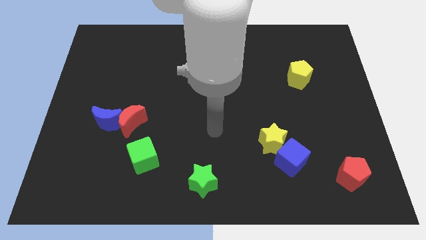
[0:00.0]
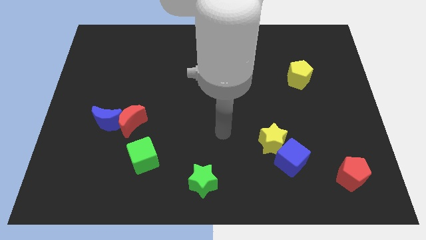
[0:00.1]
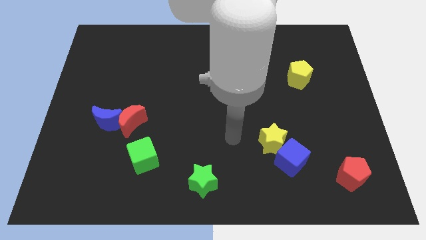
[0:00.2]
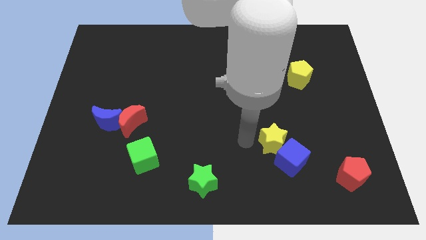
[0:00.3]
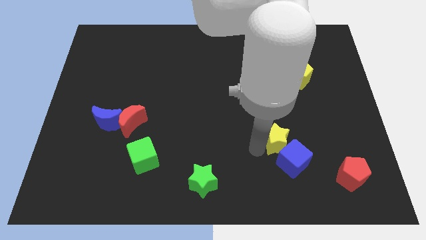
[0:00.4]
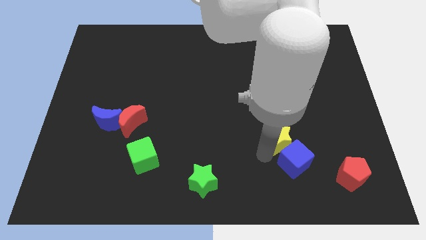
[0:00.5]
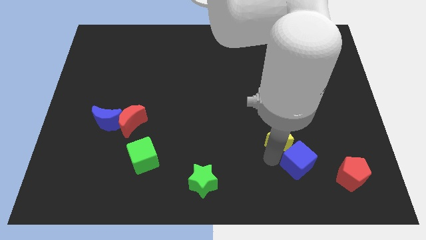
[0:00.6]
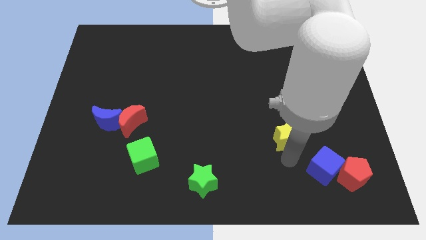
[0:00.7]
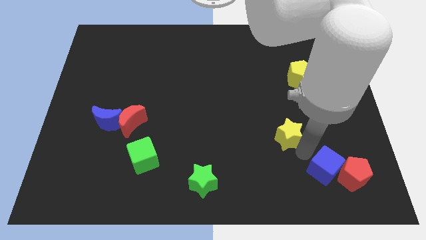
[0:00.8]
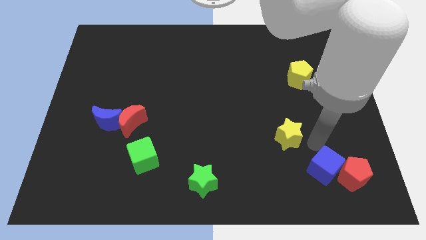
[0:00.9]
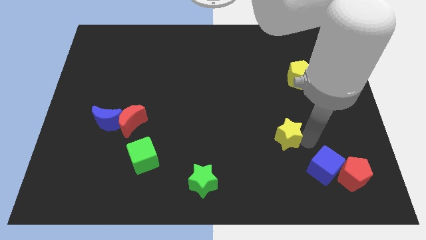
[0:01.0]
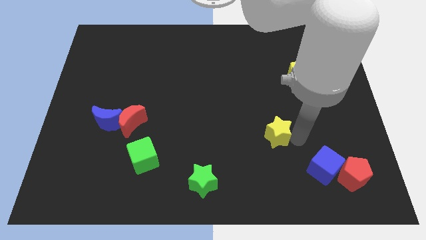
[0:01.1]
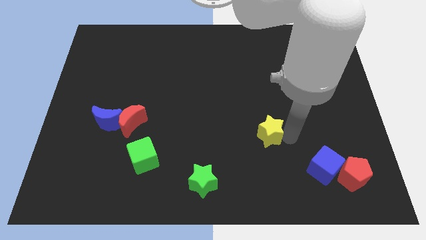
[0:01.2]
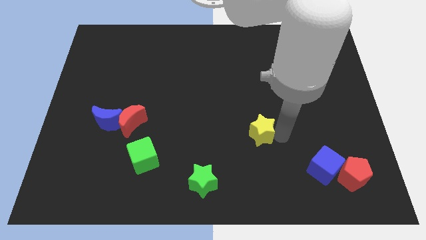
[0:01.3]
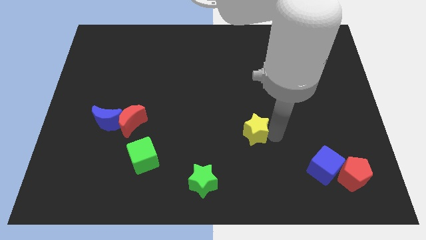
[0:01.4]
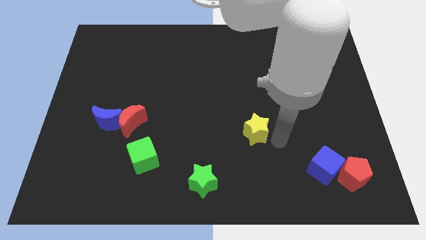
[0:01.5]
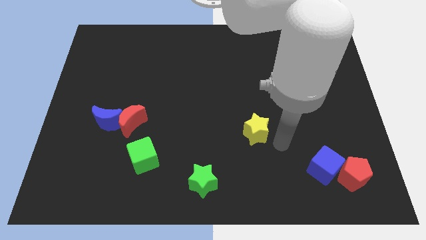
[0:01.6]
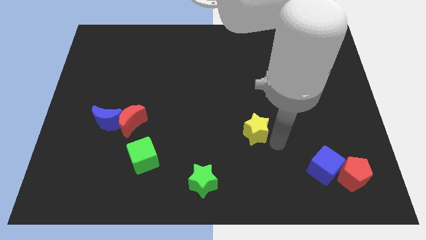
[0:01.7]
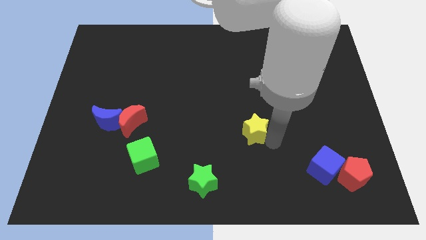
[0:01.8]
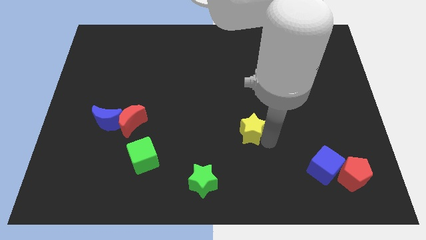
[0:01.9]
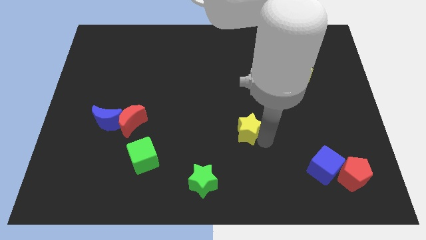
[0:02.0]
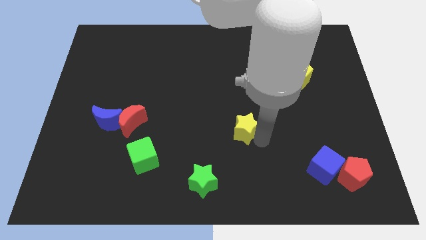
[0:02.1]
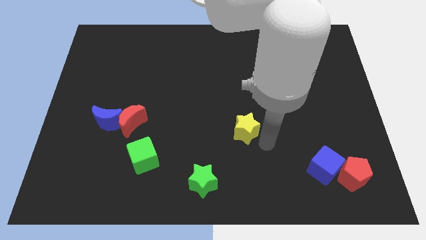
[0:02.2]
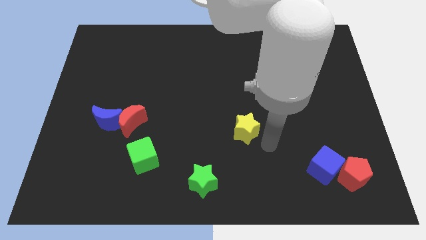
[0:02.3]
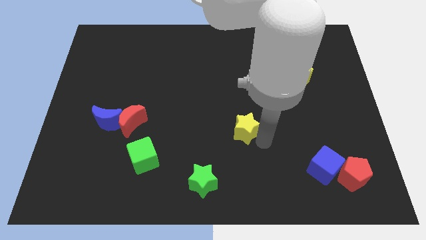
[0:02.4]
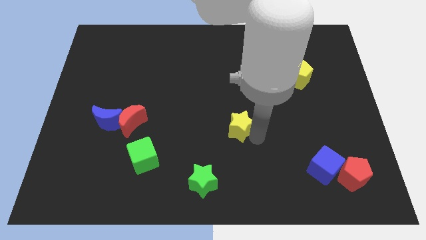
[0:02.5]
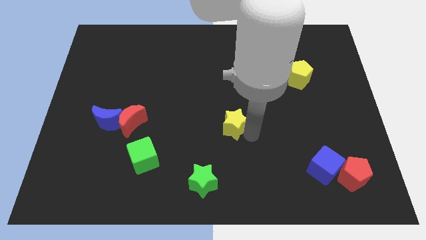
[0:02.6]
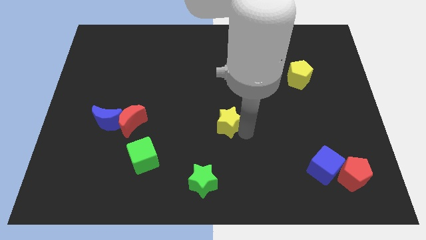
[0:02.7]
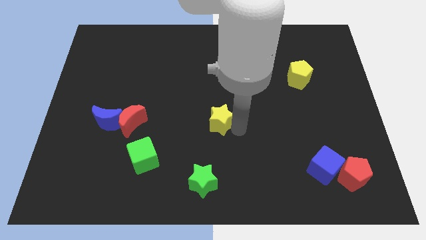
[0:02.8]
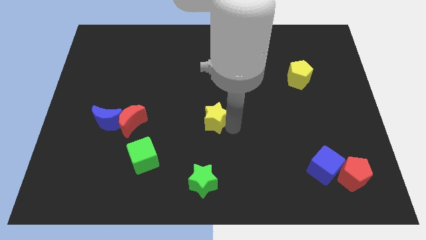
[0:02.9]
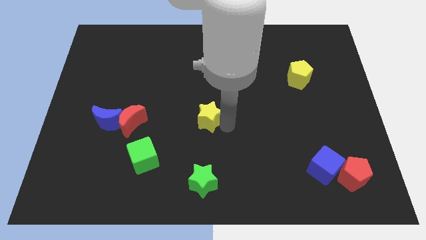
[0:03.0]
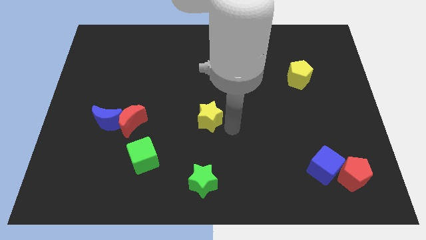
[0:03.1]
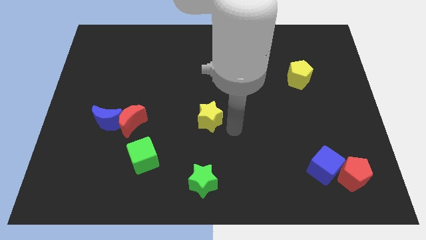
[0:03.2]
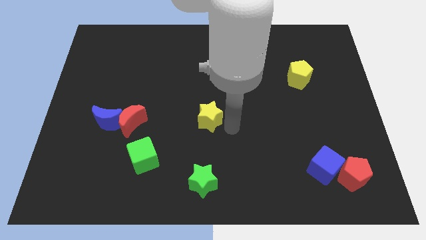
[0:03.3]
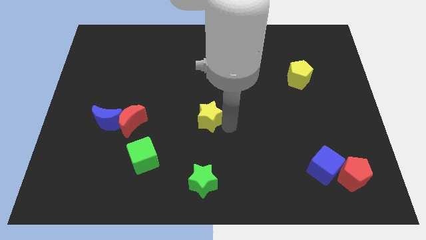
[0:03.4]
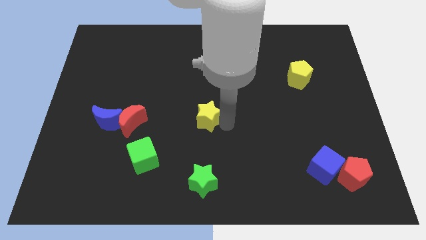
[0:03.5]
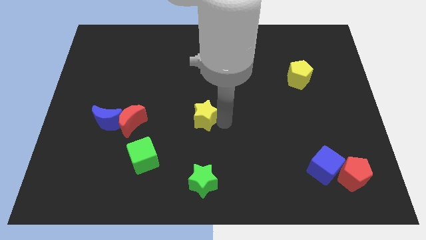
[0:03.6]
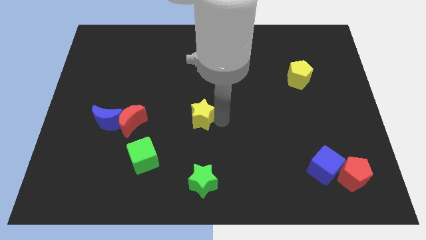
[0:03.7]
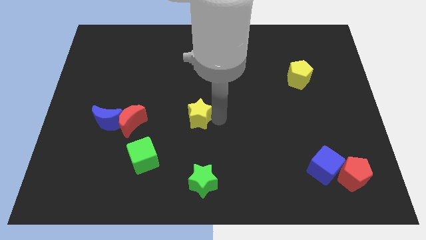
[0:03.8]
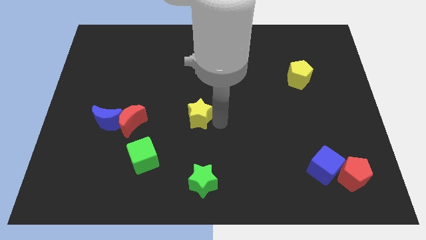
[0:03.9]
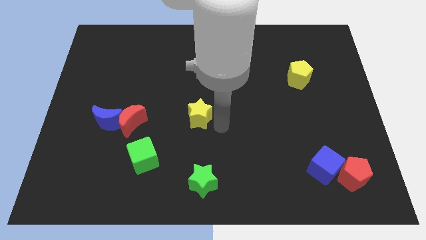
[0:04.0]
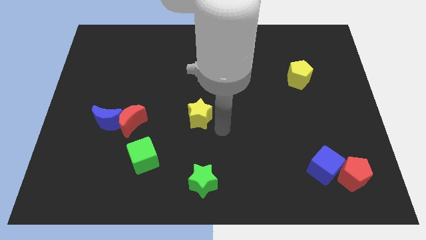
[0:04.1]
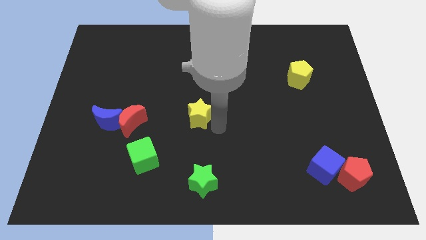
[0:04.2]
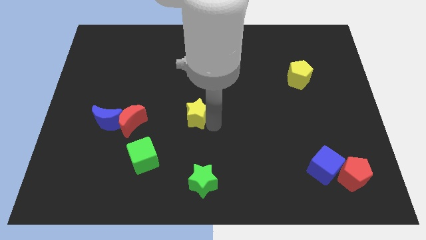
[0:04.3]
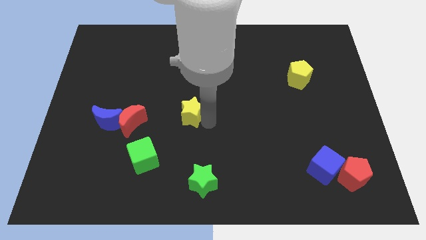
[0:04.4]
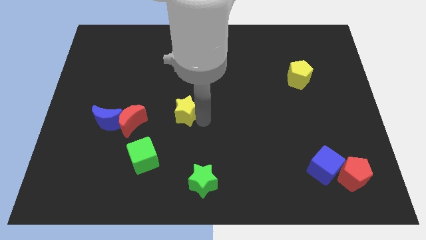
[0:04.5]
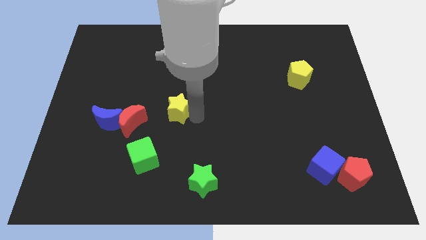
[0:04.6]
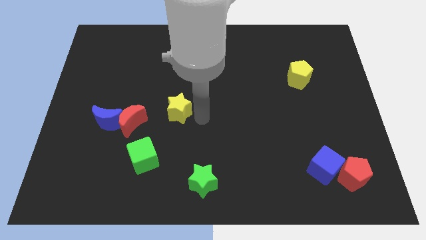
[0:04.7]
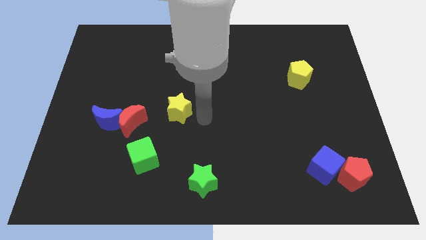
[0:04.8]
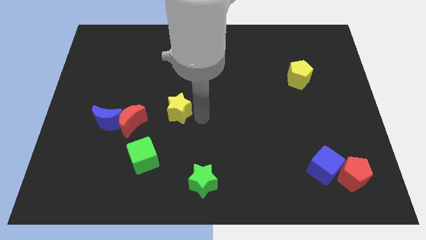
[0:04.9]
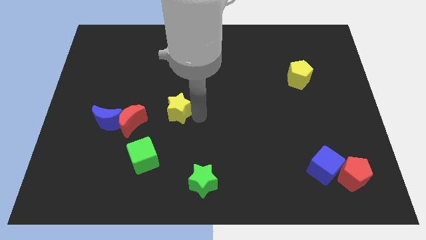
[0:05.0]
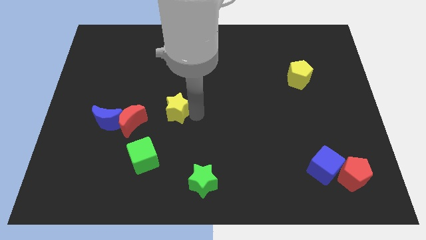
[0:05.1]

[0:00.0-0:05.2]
move the yellow star to the top right side of the red moon

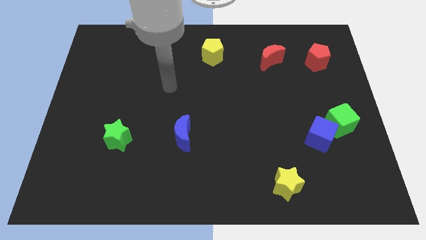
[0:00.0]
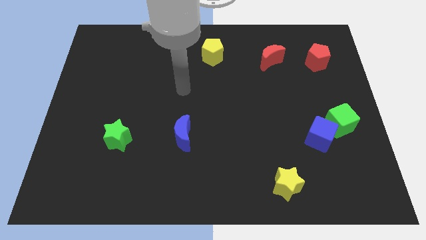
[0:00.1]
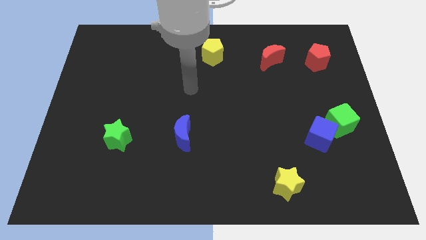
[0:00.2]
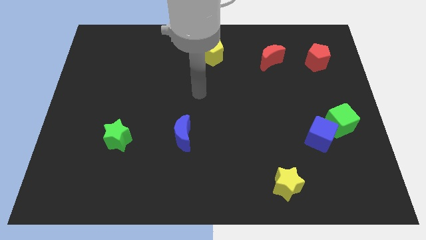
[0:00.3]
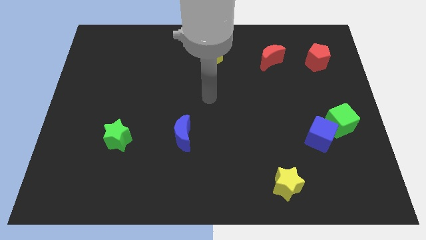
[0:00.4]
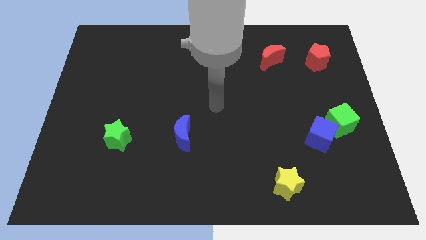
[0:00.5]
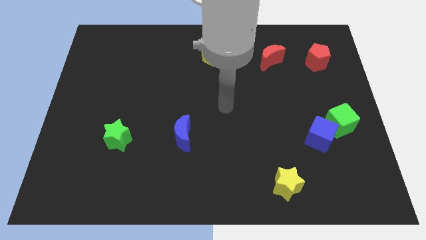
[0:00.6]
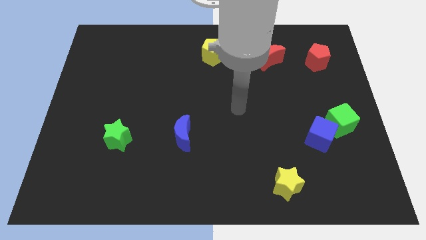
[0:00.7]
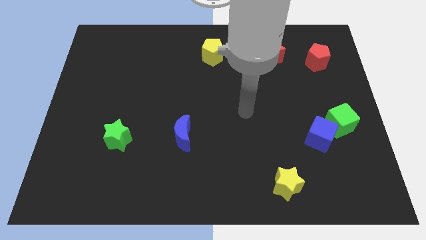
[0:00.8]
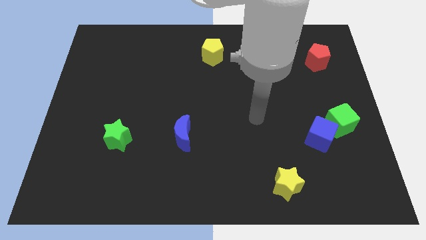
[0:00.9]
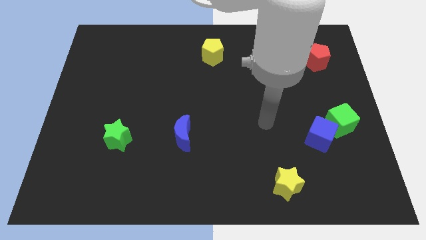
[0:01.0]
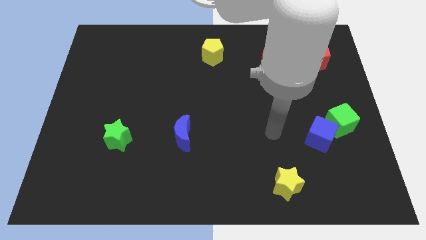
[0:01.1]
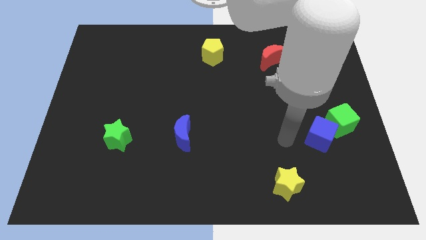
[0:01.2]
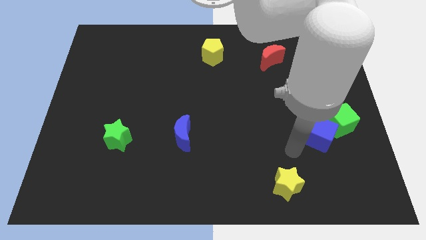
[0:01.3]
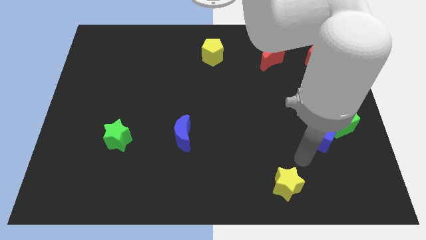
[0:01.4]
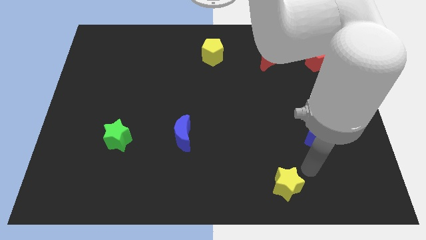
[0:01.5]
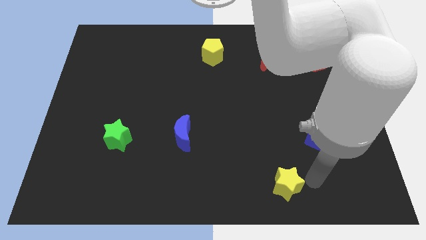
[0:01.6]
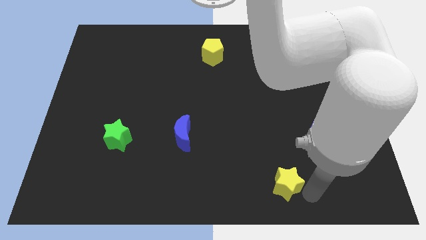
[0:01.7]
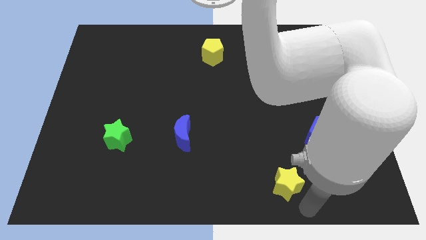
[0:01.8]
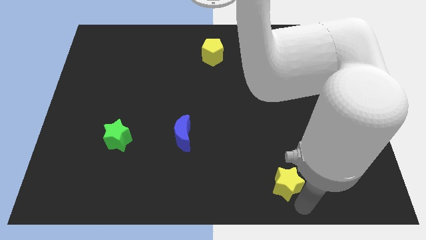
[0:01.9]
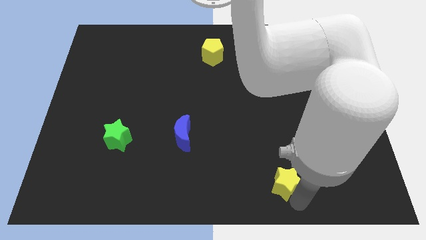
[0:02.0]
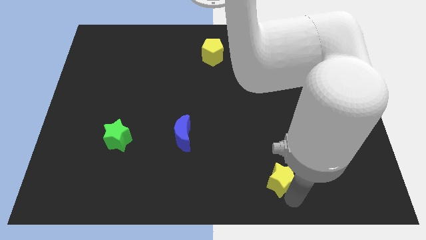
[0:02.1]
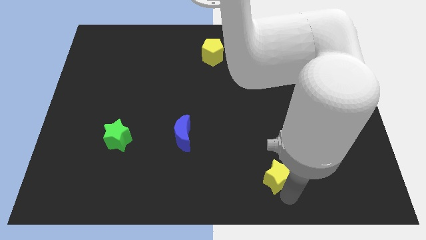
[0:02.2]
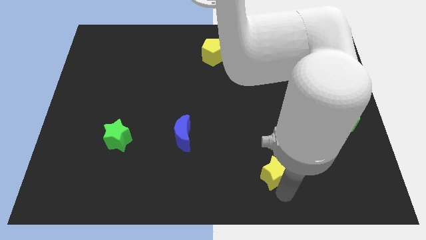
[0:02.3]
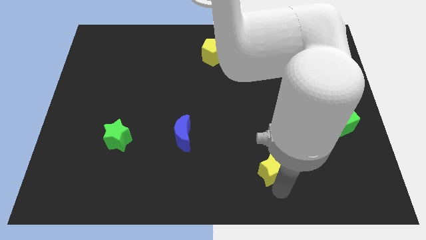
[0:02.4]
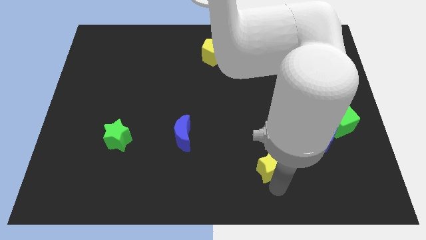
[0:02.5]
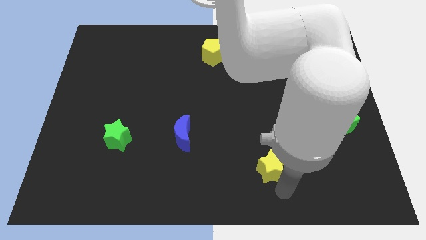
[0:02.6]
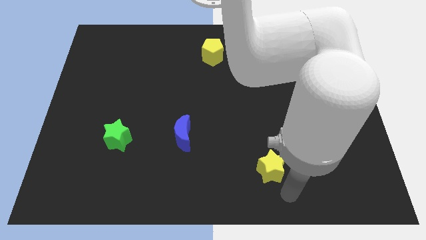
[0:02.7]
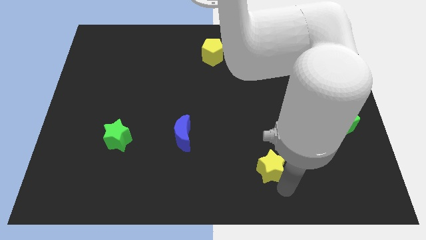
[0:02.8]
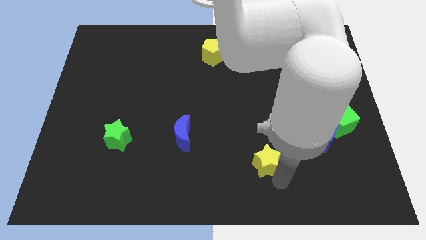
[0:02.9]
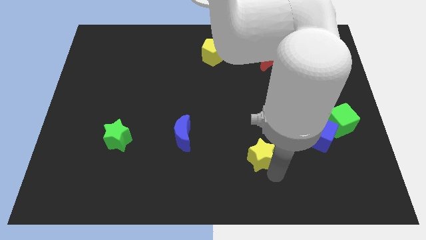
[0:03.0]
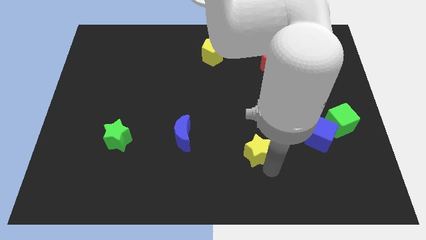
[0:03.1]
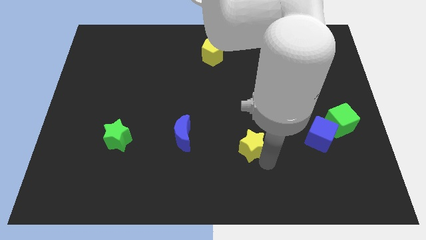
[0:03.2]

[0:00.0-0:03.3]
move the yellow star to the right side of the blue moon
